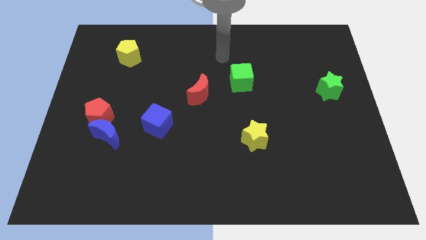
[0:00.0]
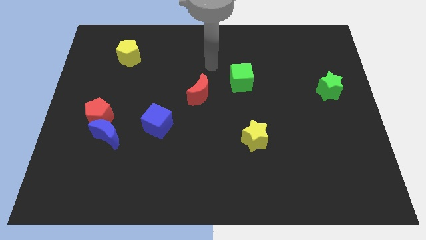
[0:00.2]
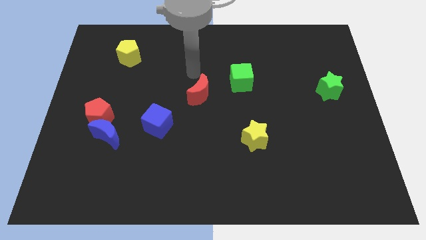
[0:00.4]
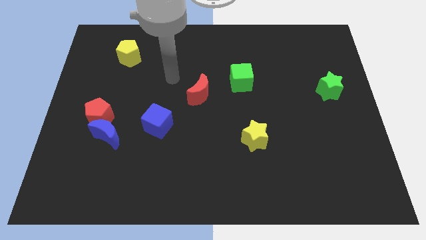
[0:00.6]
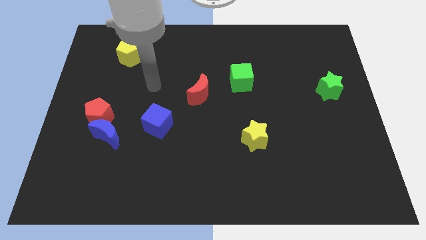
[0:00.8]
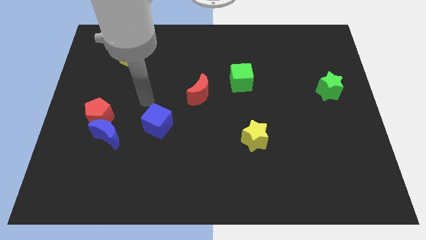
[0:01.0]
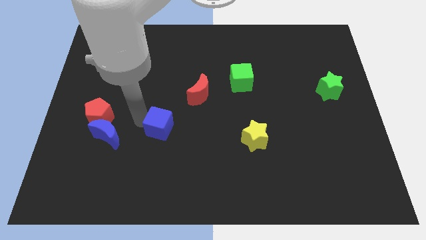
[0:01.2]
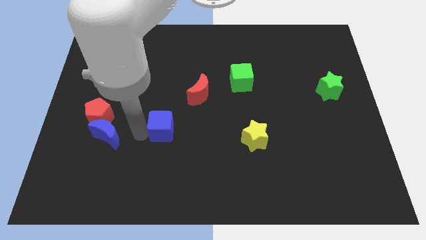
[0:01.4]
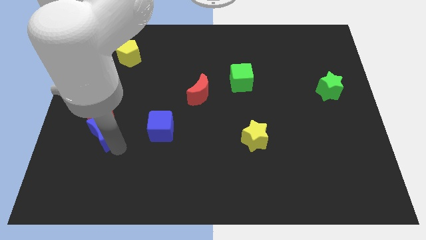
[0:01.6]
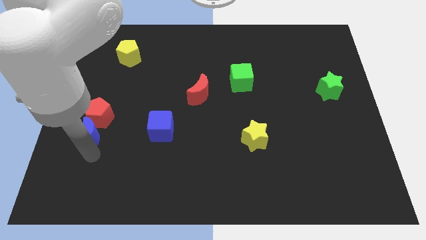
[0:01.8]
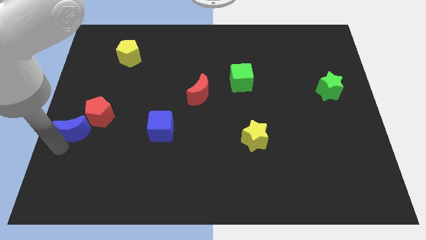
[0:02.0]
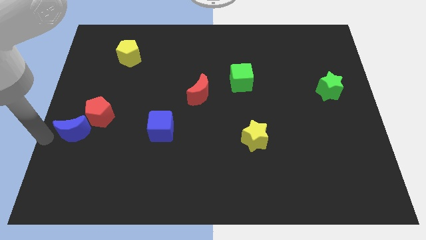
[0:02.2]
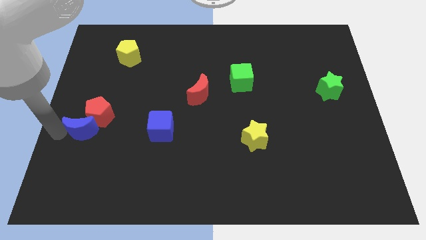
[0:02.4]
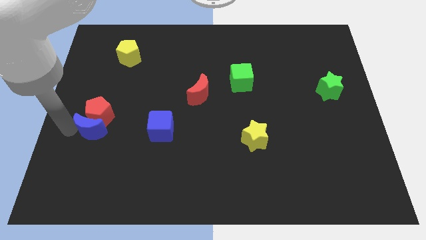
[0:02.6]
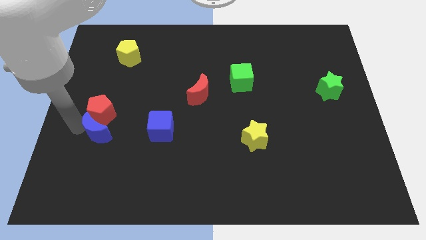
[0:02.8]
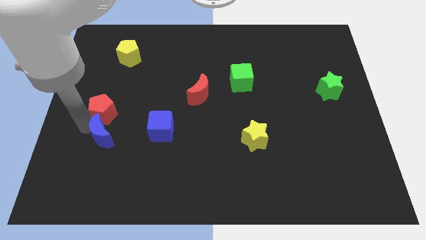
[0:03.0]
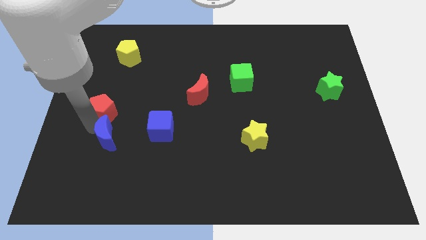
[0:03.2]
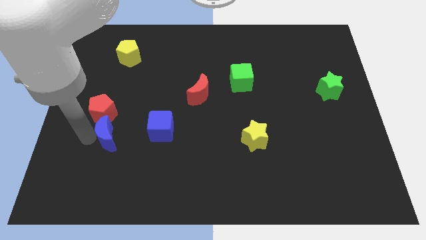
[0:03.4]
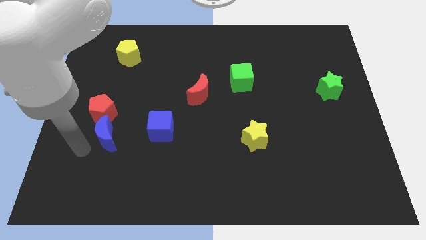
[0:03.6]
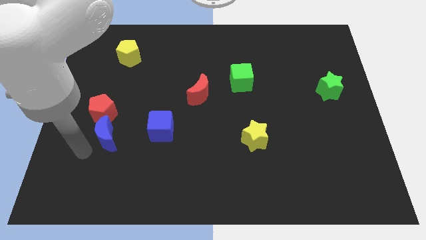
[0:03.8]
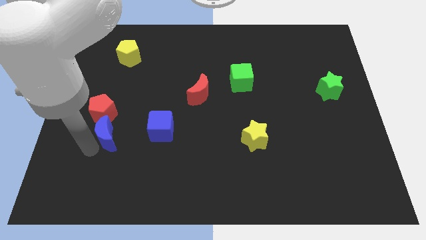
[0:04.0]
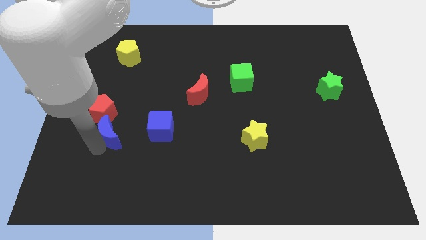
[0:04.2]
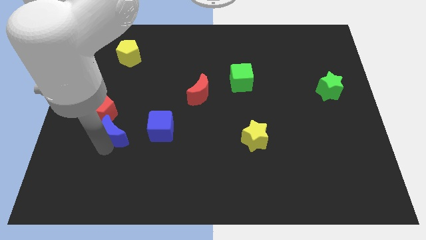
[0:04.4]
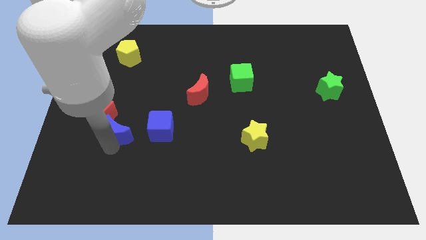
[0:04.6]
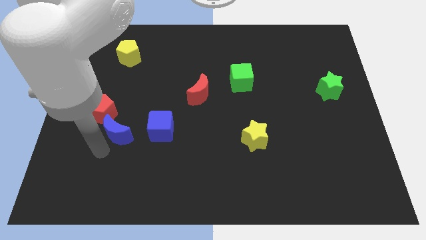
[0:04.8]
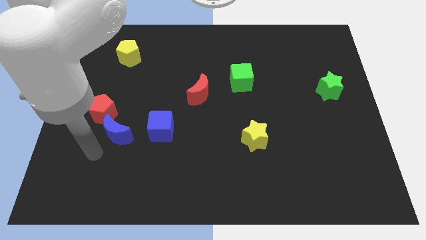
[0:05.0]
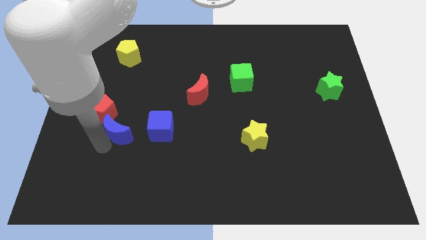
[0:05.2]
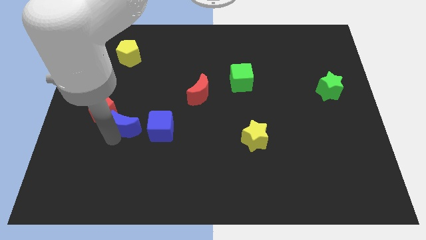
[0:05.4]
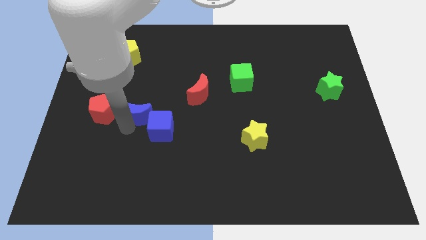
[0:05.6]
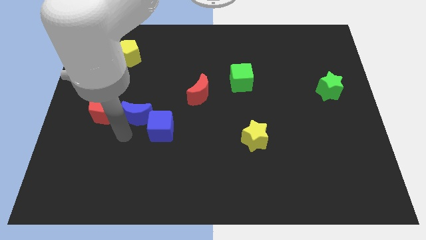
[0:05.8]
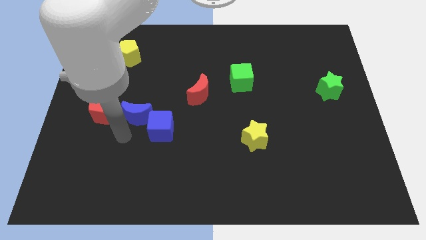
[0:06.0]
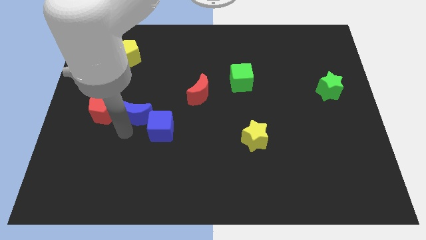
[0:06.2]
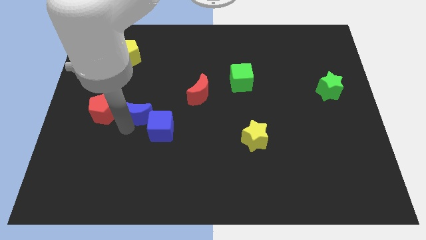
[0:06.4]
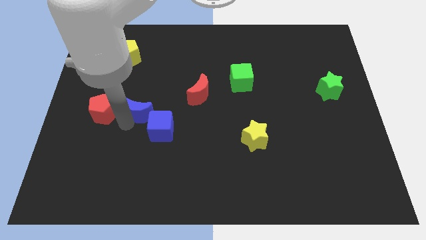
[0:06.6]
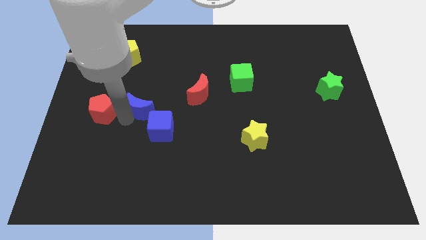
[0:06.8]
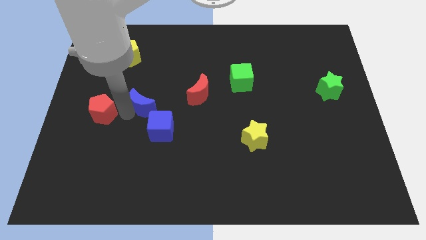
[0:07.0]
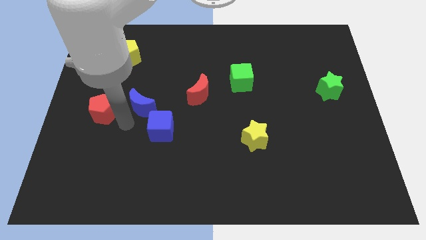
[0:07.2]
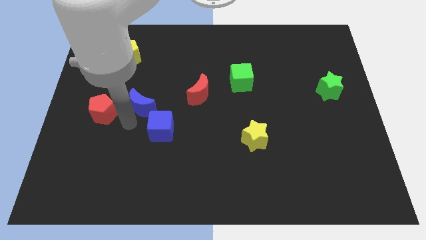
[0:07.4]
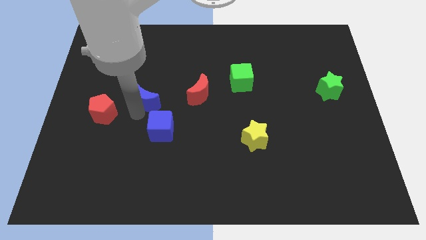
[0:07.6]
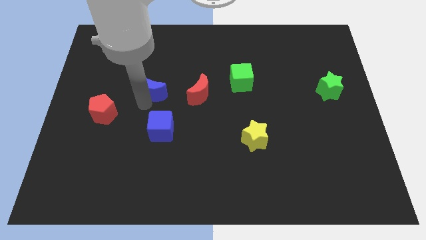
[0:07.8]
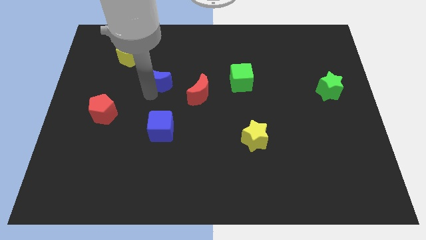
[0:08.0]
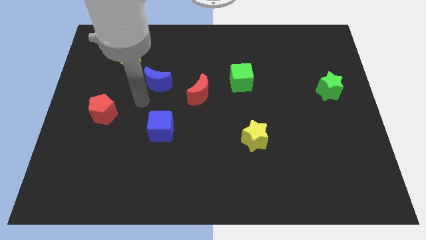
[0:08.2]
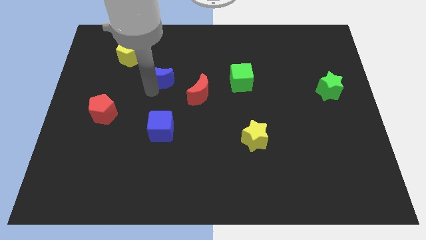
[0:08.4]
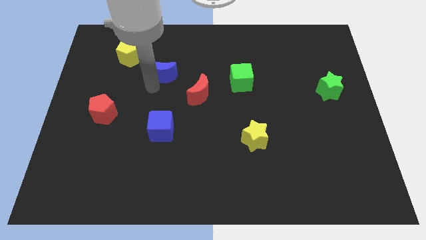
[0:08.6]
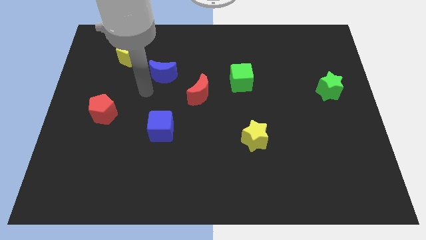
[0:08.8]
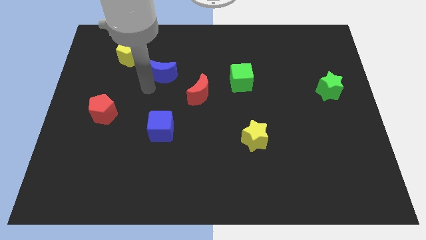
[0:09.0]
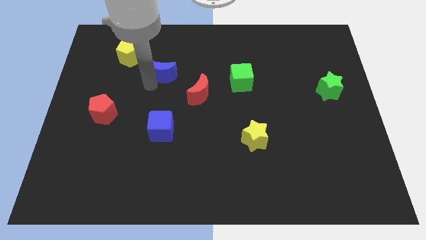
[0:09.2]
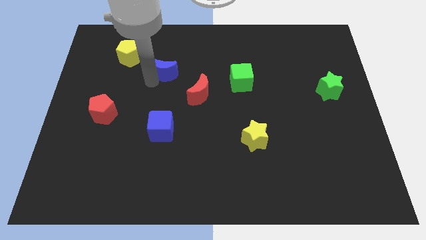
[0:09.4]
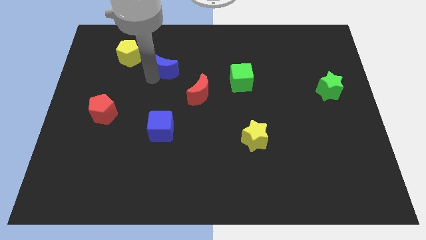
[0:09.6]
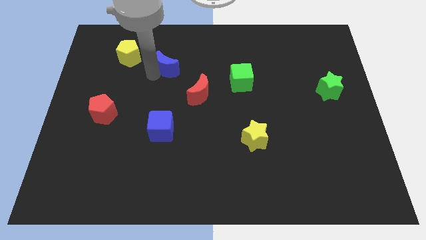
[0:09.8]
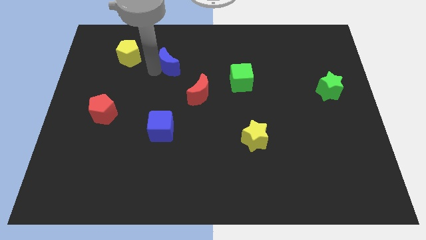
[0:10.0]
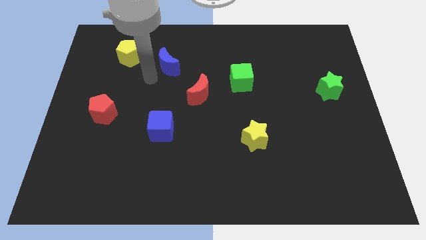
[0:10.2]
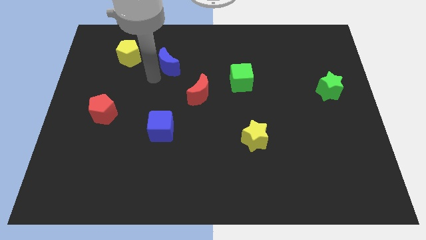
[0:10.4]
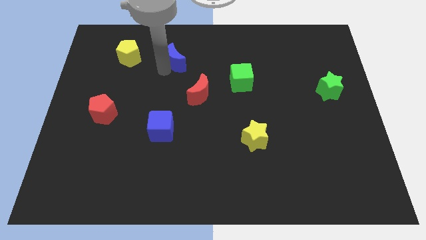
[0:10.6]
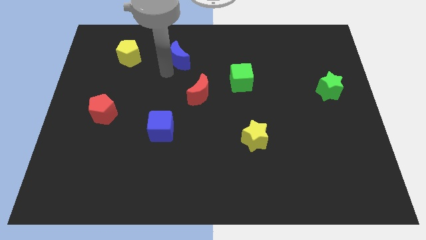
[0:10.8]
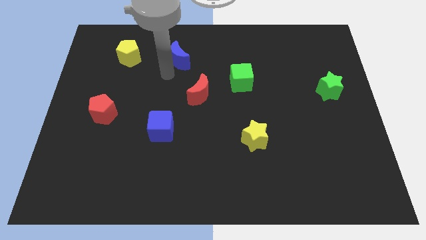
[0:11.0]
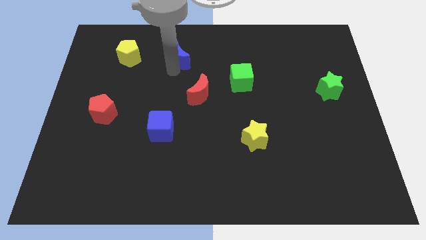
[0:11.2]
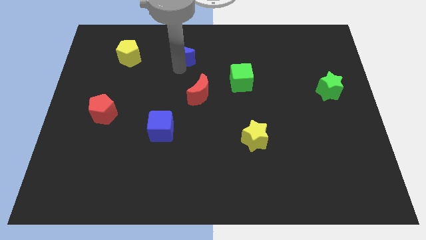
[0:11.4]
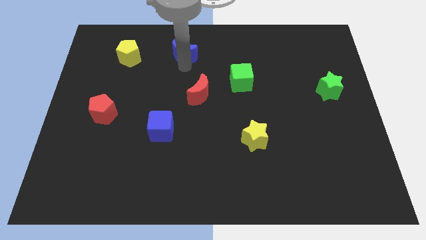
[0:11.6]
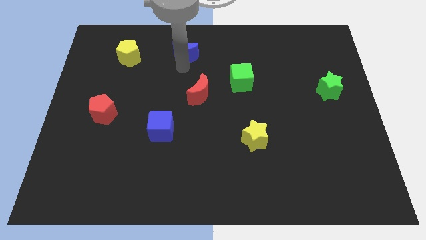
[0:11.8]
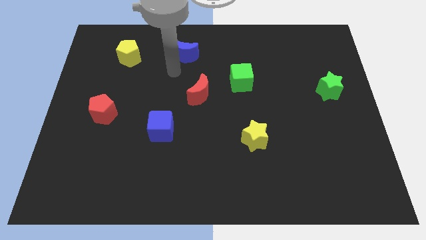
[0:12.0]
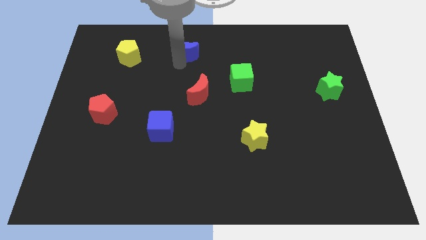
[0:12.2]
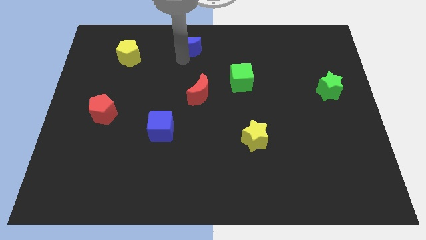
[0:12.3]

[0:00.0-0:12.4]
put the blue moon to the top
